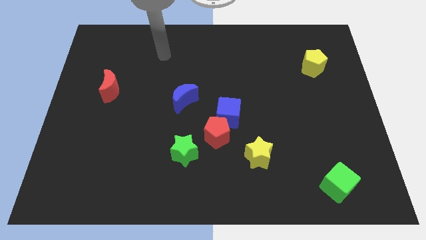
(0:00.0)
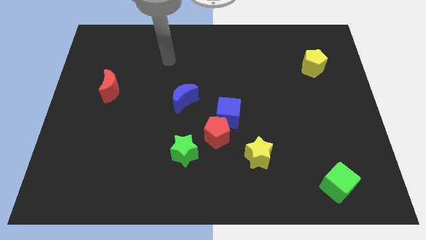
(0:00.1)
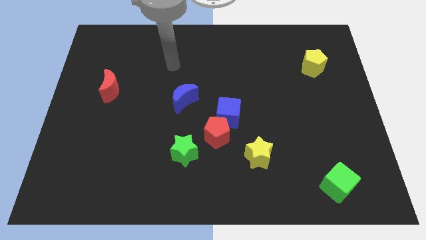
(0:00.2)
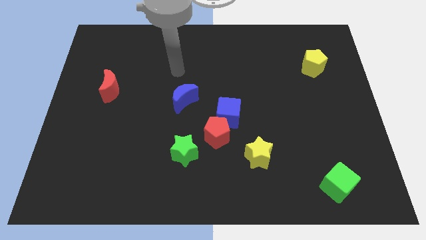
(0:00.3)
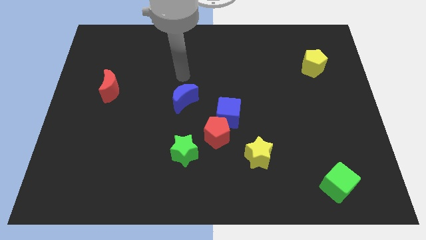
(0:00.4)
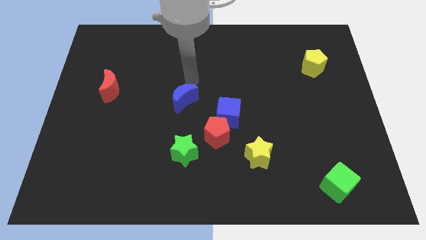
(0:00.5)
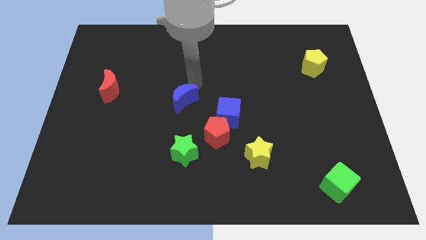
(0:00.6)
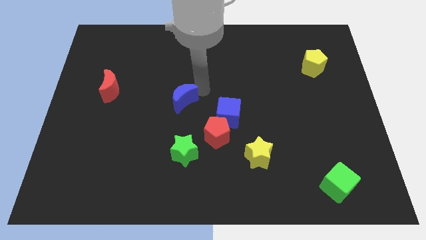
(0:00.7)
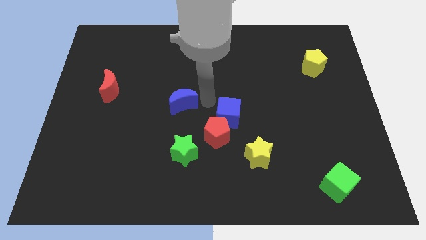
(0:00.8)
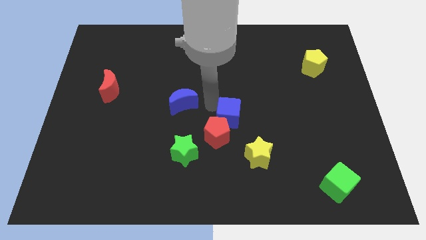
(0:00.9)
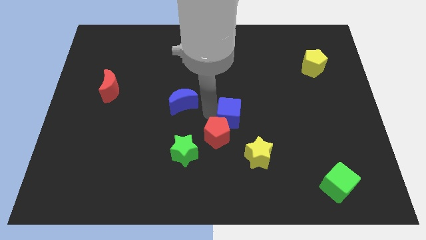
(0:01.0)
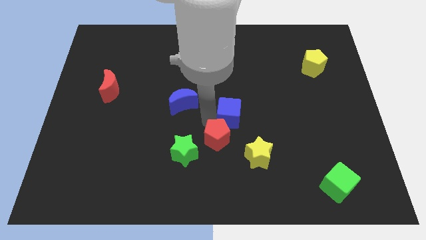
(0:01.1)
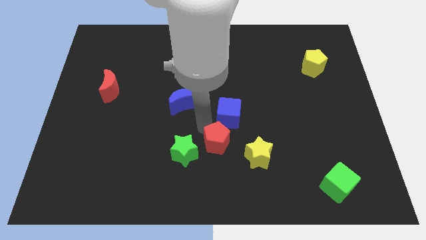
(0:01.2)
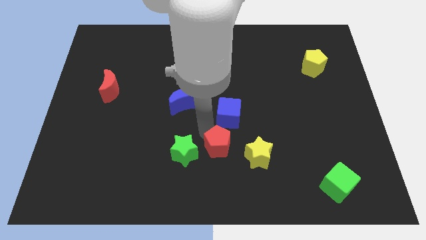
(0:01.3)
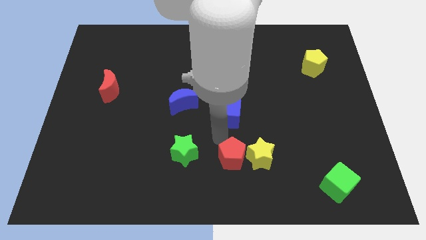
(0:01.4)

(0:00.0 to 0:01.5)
separate the blue cube from the red pentagon

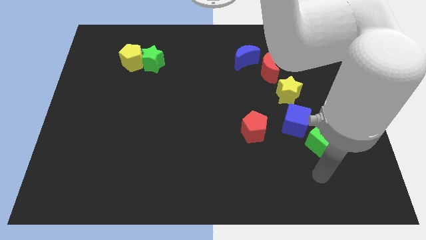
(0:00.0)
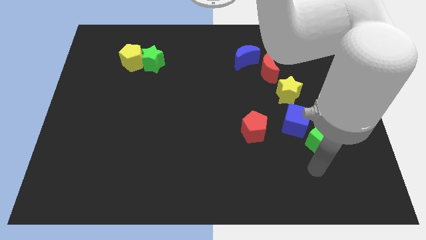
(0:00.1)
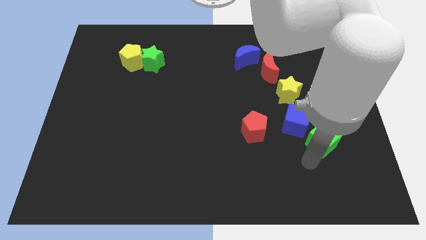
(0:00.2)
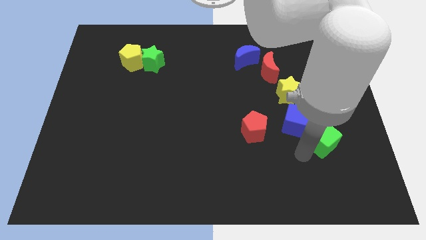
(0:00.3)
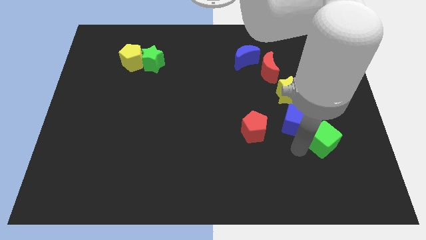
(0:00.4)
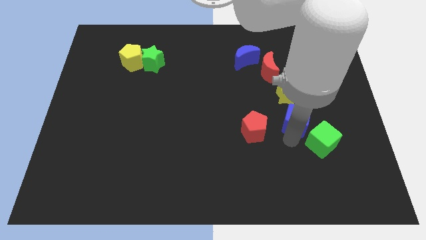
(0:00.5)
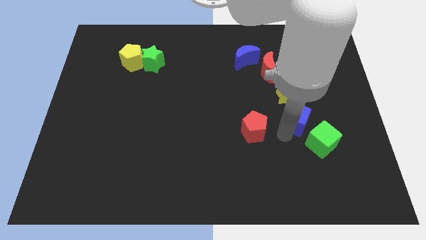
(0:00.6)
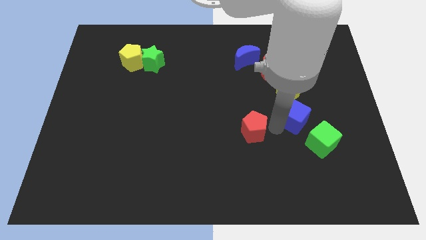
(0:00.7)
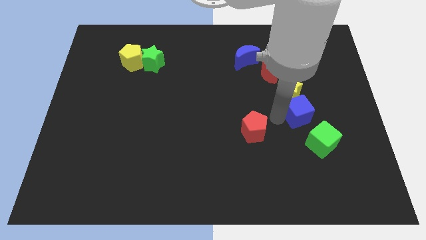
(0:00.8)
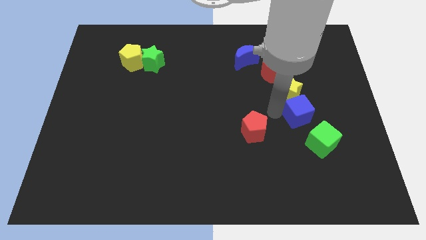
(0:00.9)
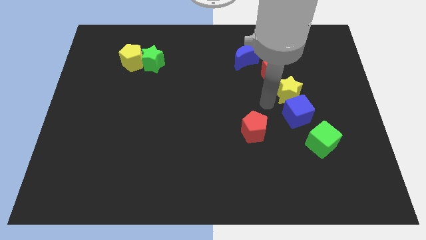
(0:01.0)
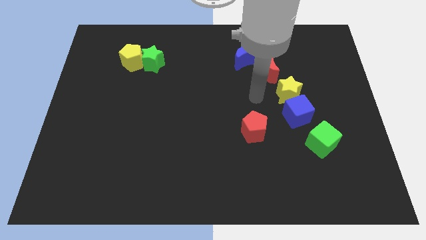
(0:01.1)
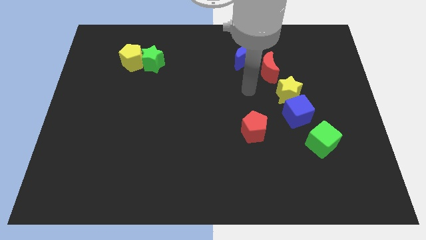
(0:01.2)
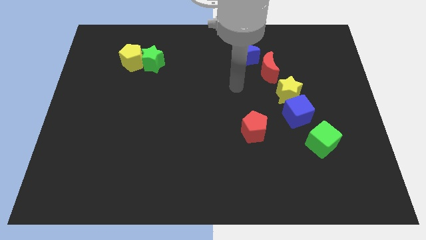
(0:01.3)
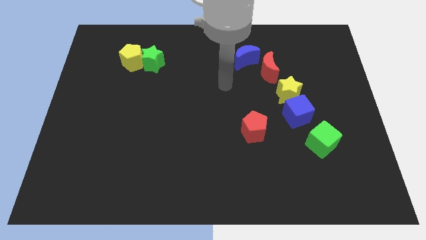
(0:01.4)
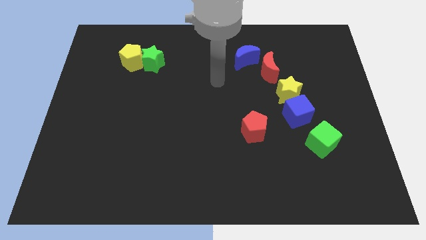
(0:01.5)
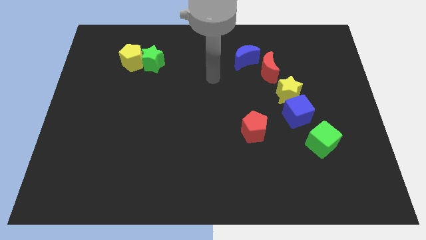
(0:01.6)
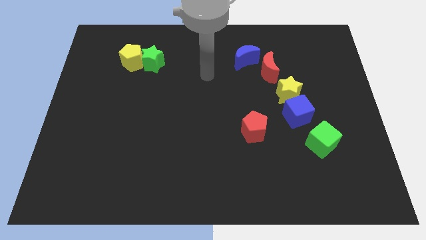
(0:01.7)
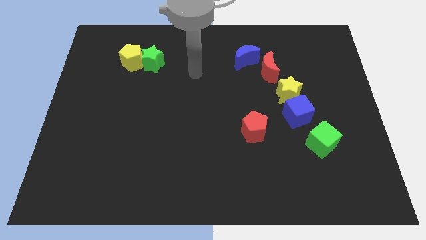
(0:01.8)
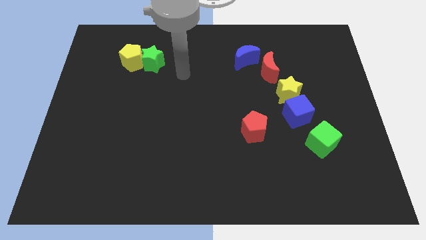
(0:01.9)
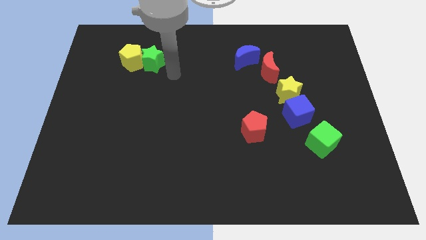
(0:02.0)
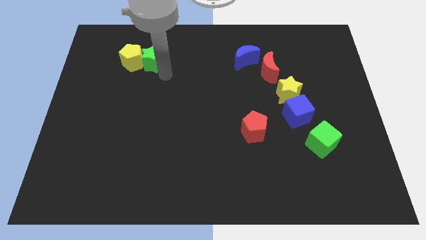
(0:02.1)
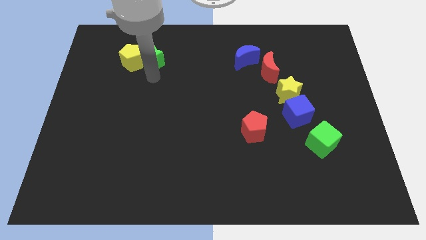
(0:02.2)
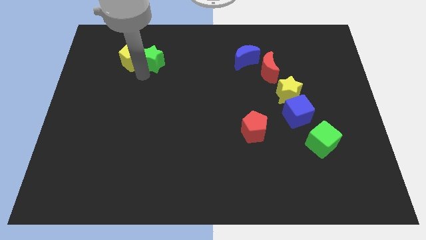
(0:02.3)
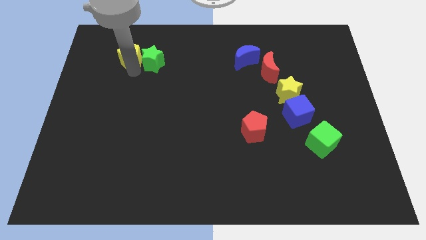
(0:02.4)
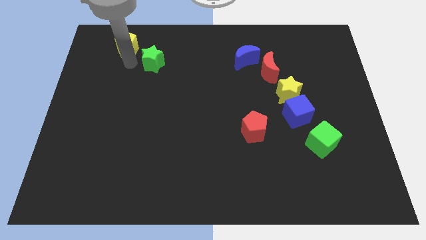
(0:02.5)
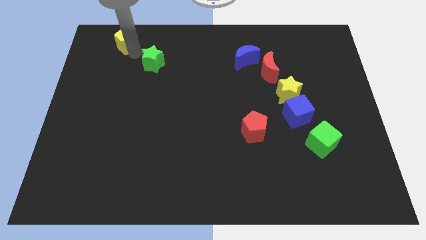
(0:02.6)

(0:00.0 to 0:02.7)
separate the green star from the yellow pentagon

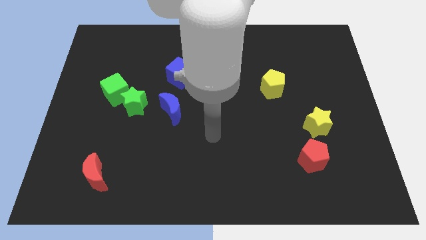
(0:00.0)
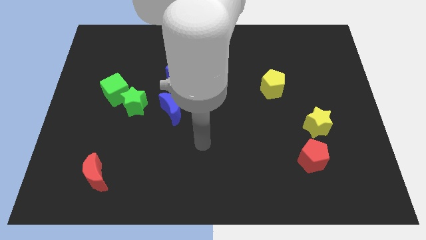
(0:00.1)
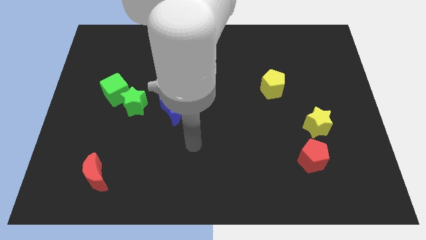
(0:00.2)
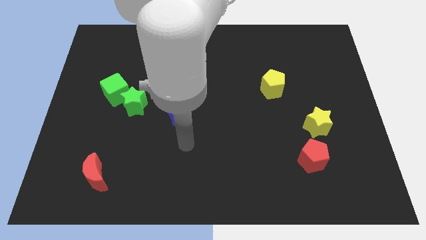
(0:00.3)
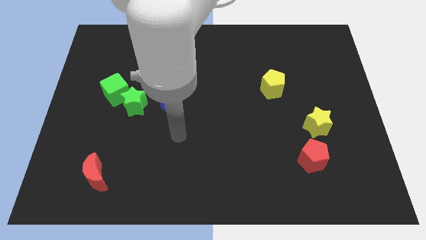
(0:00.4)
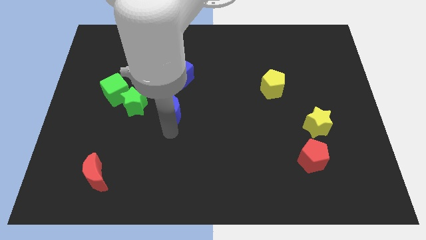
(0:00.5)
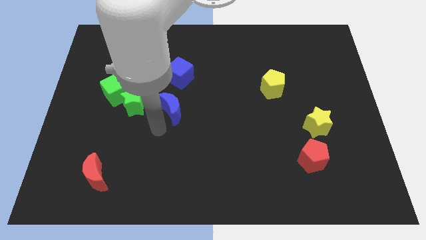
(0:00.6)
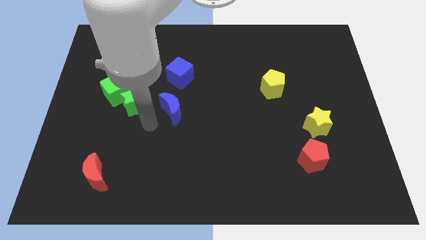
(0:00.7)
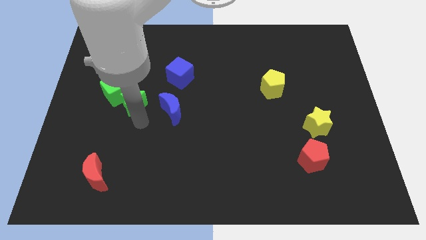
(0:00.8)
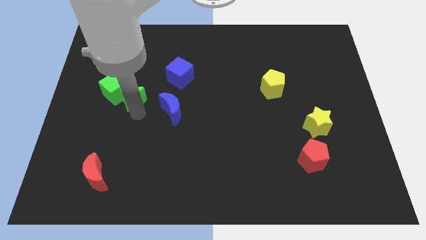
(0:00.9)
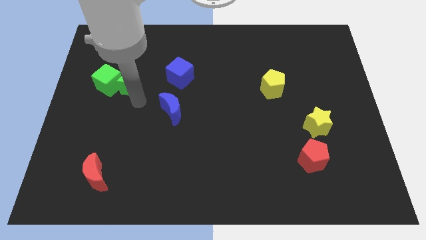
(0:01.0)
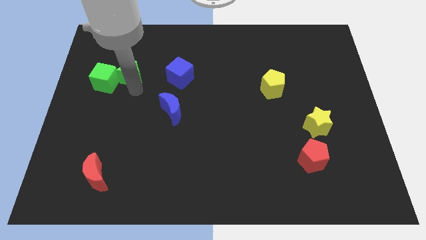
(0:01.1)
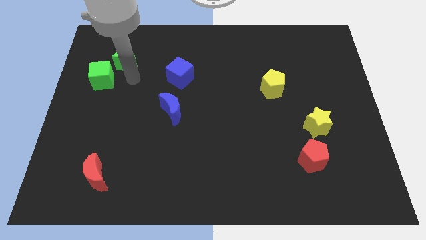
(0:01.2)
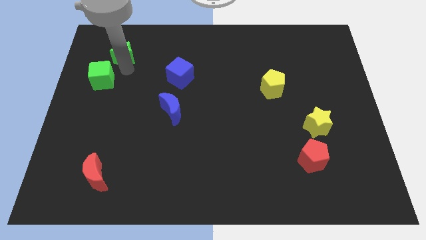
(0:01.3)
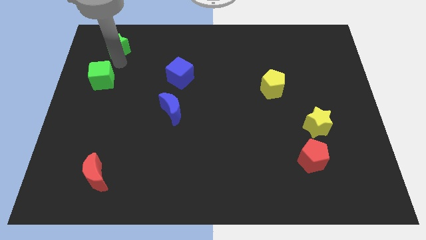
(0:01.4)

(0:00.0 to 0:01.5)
separate the green cube from the green star

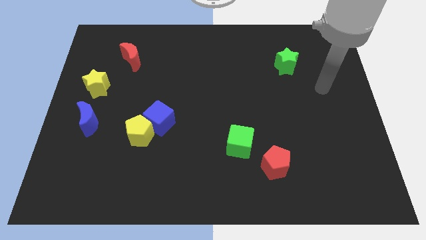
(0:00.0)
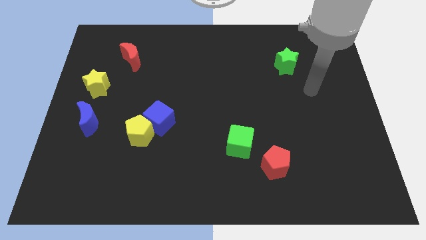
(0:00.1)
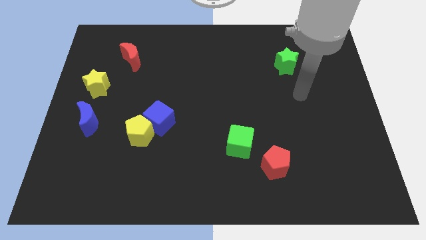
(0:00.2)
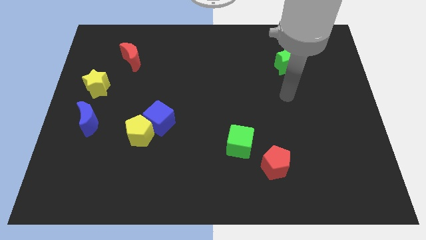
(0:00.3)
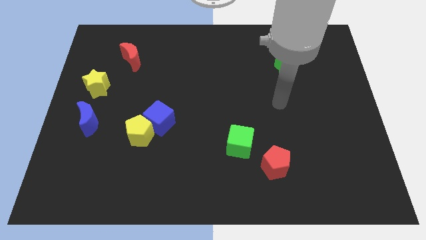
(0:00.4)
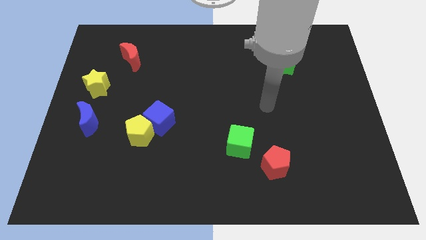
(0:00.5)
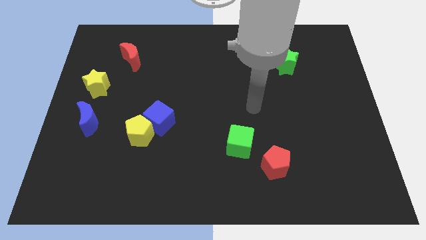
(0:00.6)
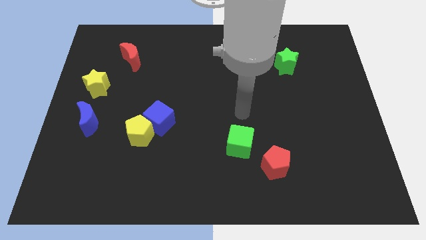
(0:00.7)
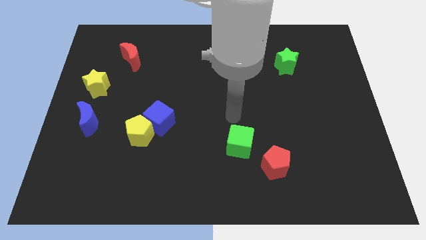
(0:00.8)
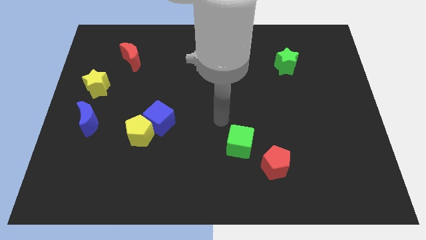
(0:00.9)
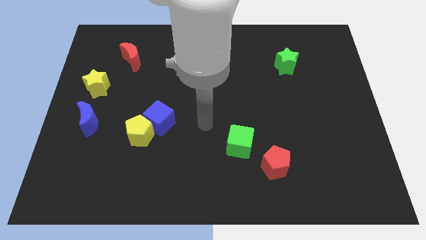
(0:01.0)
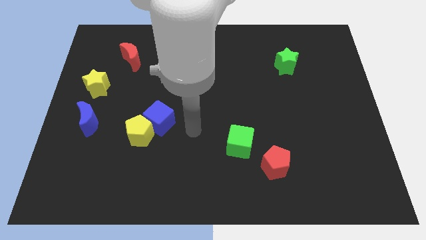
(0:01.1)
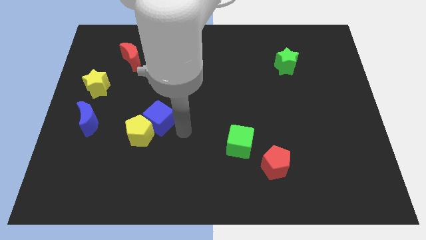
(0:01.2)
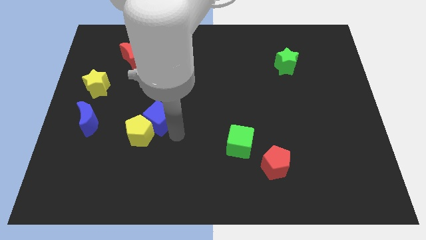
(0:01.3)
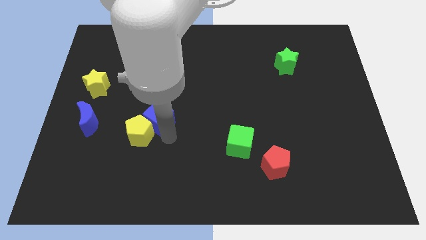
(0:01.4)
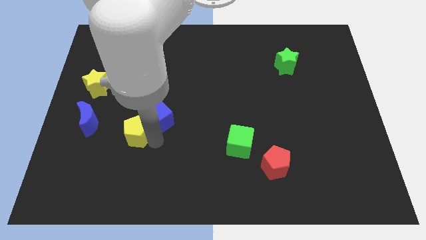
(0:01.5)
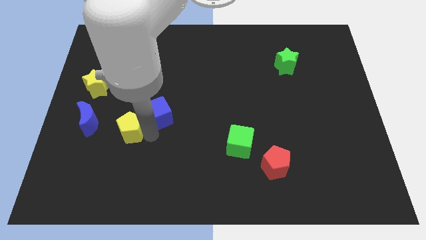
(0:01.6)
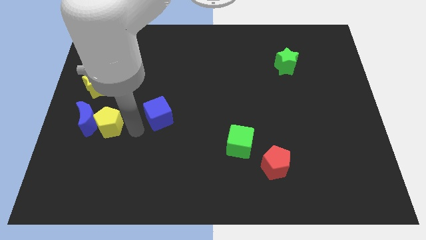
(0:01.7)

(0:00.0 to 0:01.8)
move the blue cube away from the yellow pentagon

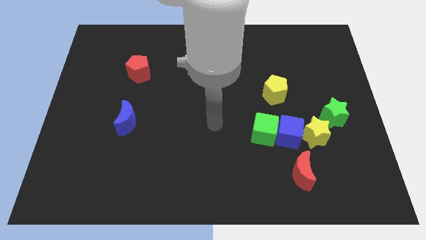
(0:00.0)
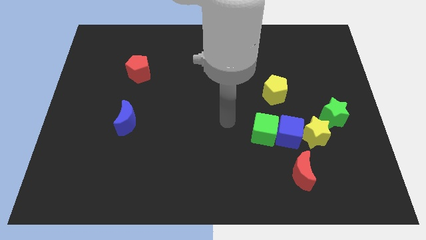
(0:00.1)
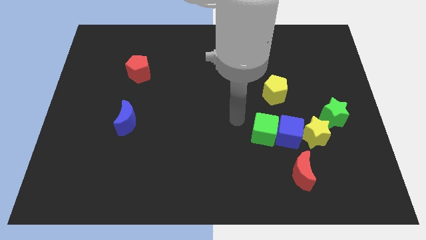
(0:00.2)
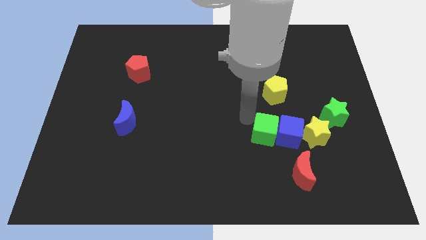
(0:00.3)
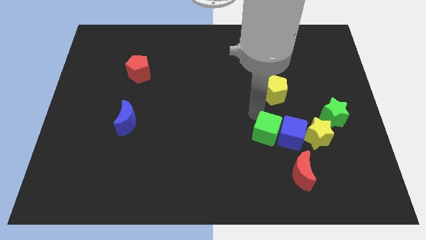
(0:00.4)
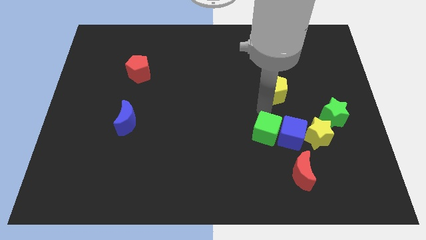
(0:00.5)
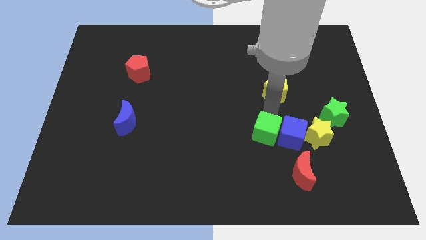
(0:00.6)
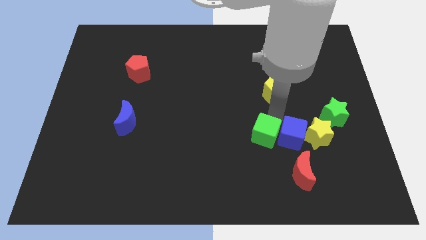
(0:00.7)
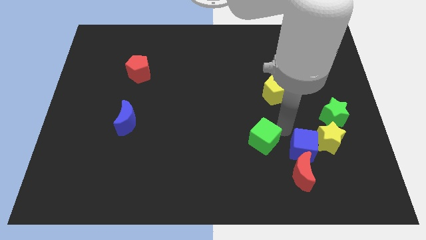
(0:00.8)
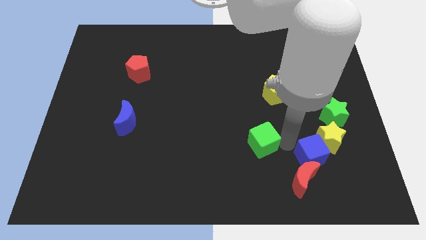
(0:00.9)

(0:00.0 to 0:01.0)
move the green cube away from the blue cube

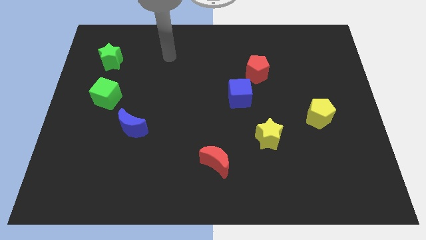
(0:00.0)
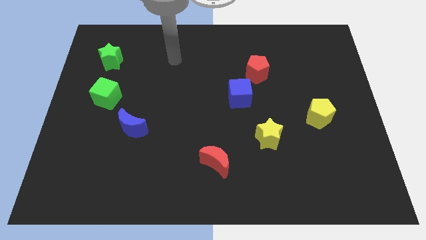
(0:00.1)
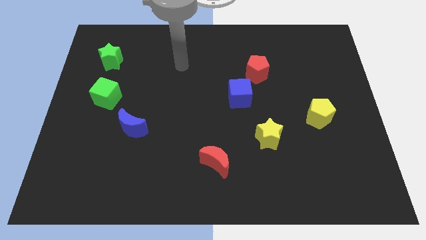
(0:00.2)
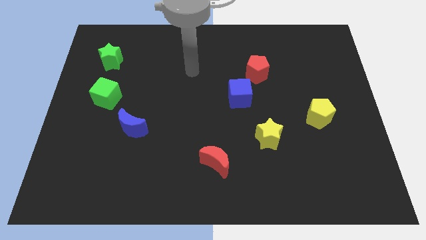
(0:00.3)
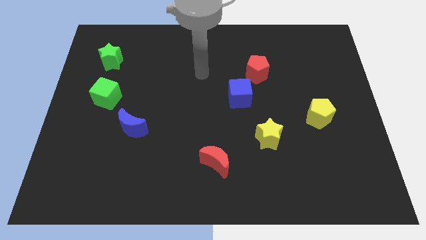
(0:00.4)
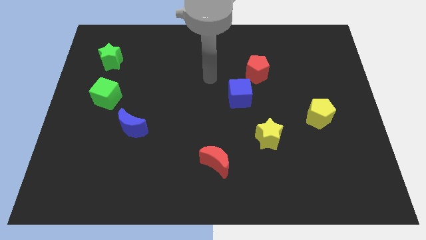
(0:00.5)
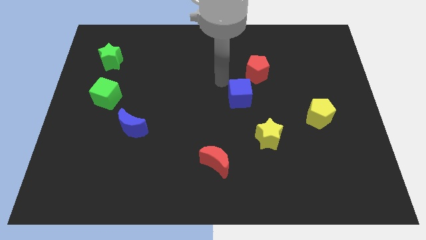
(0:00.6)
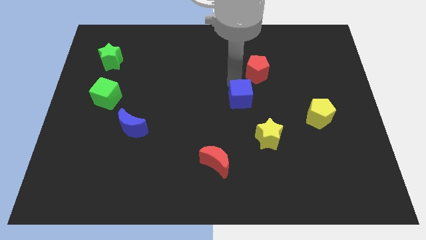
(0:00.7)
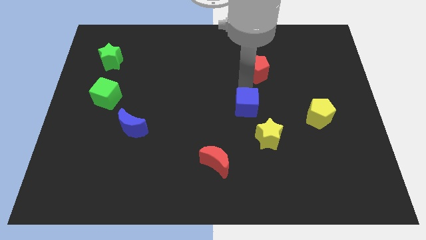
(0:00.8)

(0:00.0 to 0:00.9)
move the red pentagon away from the blue cube
